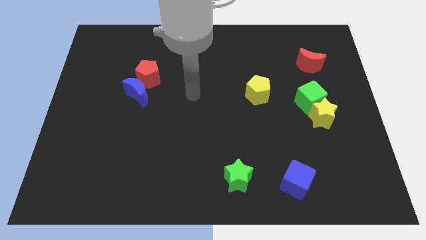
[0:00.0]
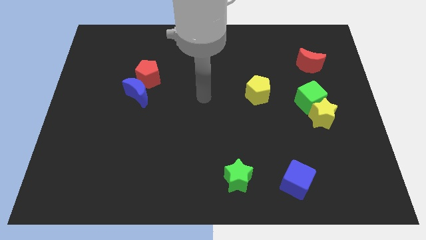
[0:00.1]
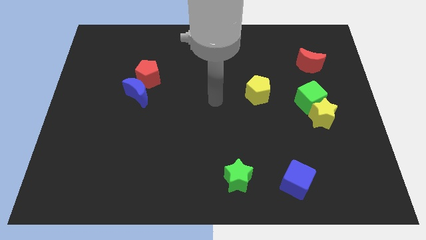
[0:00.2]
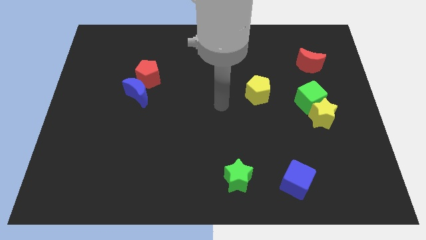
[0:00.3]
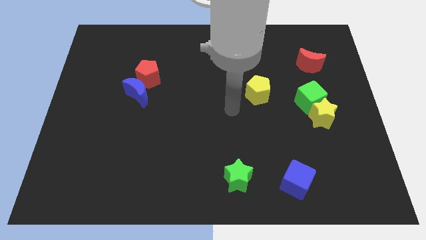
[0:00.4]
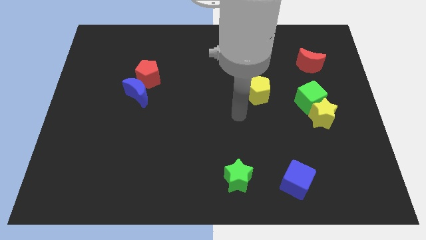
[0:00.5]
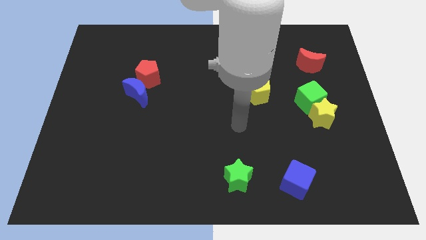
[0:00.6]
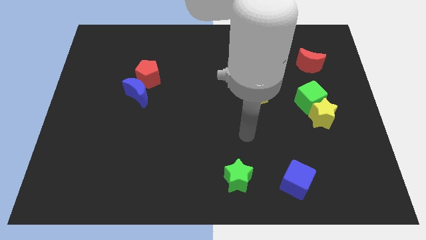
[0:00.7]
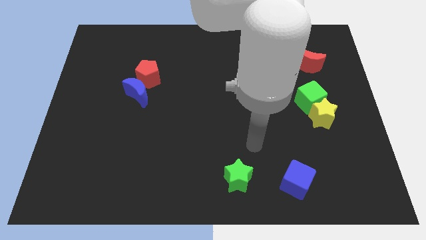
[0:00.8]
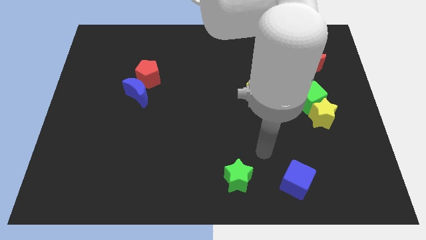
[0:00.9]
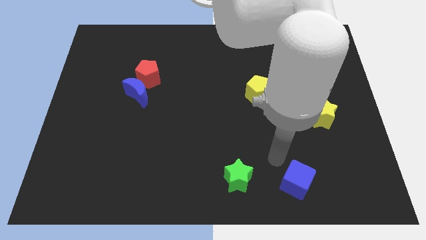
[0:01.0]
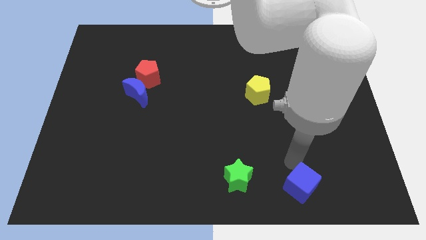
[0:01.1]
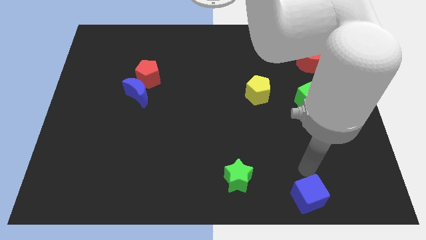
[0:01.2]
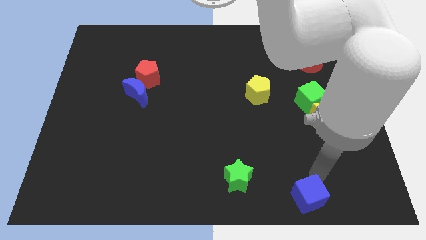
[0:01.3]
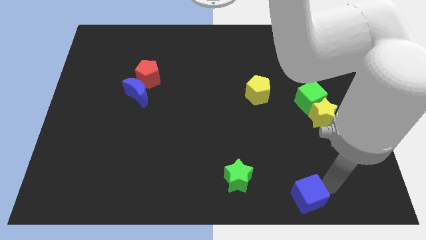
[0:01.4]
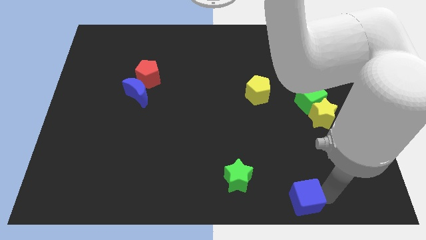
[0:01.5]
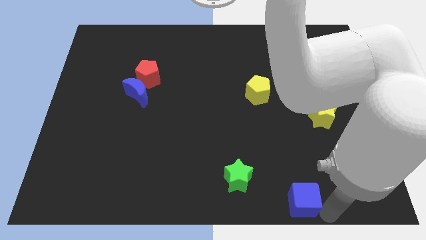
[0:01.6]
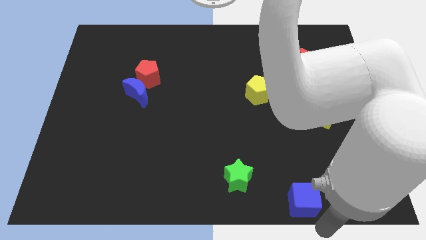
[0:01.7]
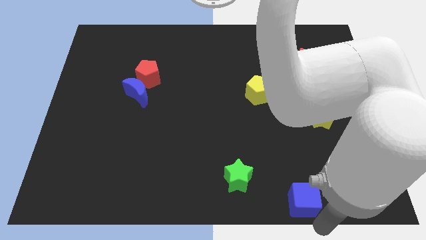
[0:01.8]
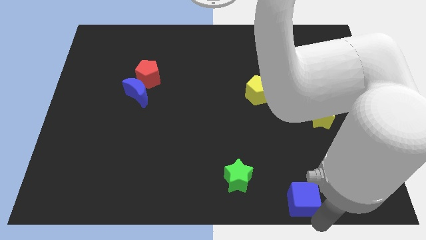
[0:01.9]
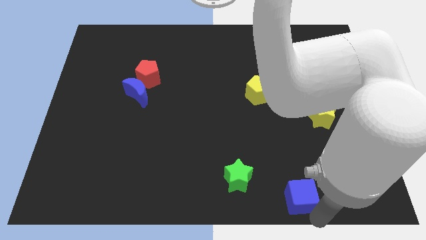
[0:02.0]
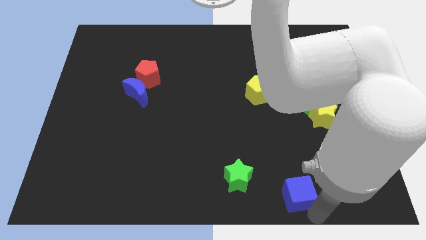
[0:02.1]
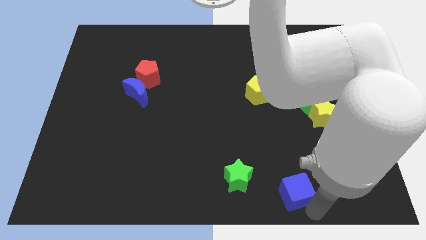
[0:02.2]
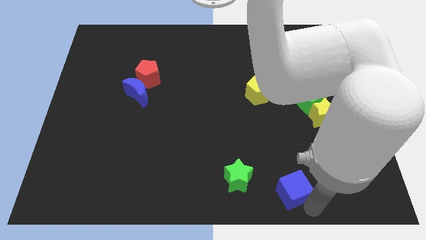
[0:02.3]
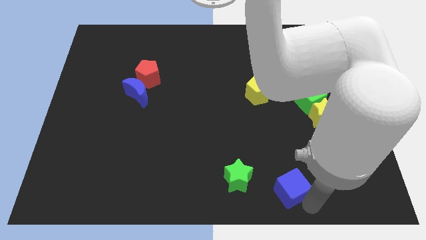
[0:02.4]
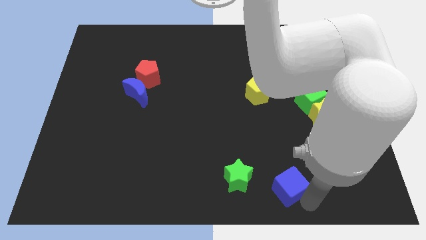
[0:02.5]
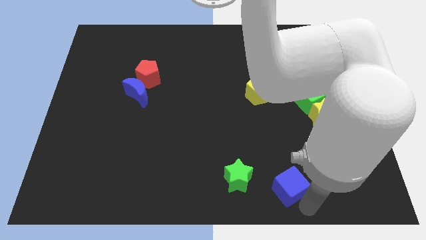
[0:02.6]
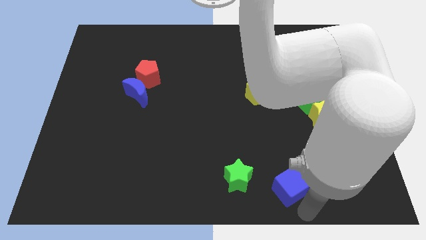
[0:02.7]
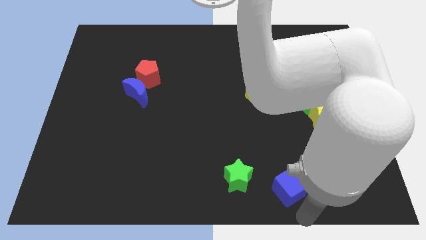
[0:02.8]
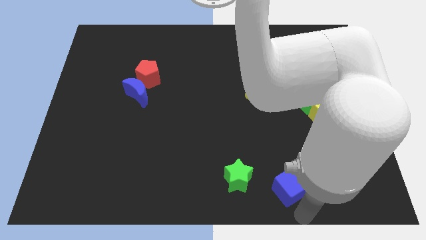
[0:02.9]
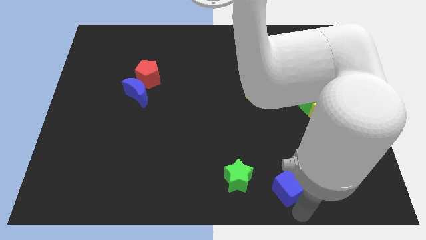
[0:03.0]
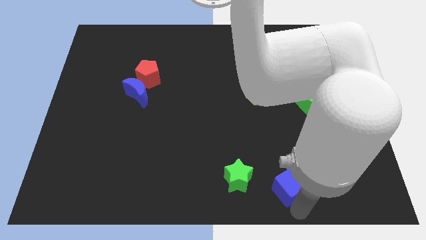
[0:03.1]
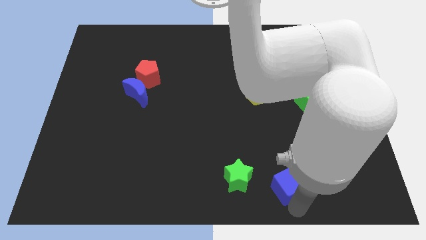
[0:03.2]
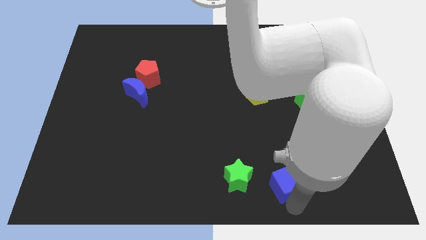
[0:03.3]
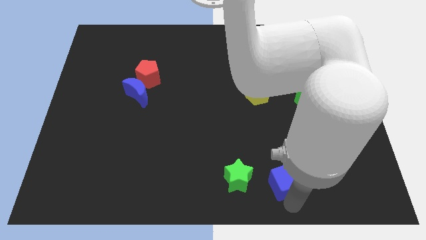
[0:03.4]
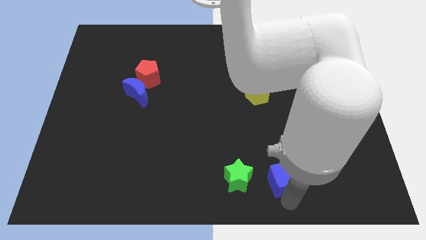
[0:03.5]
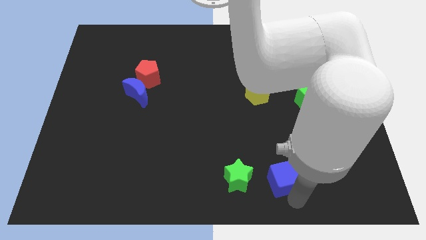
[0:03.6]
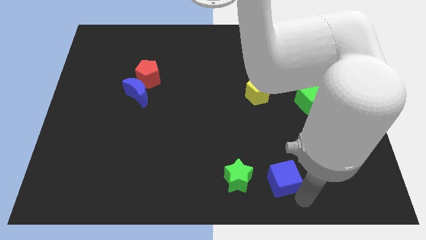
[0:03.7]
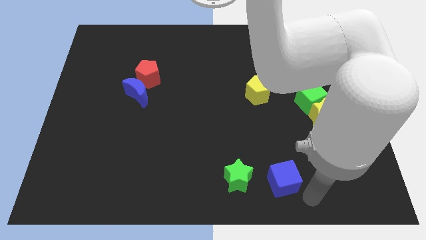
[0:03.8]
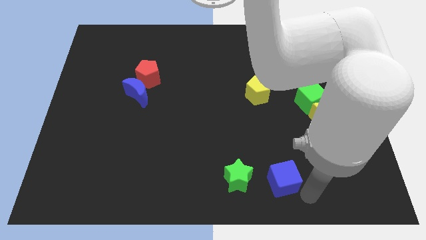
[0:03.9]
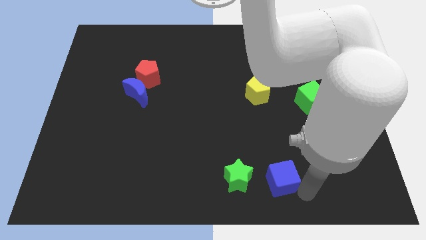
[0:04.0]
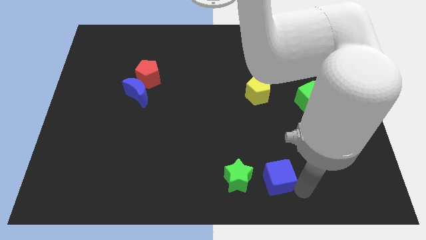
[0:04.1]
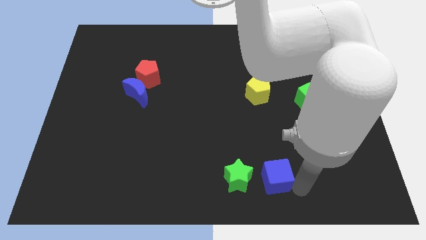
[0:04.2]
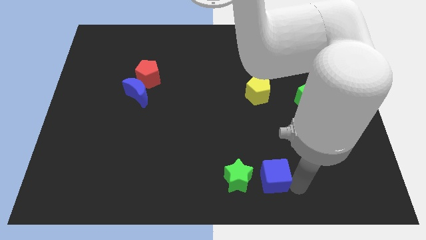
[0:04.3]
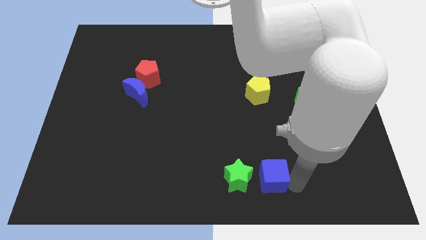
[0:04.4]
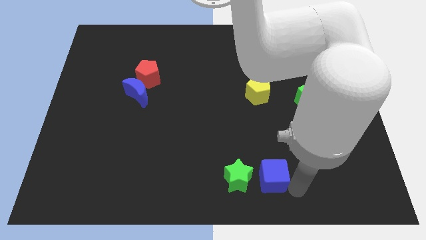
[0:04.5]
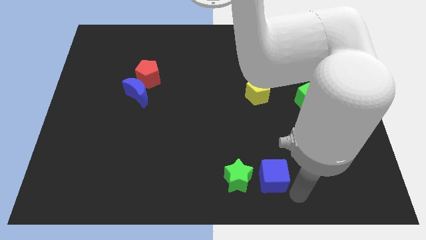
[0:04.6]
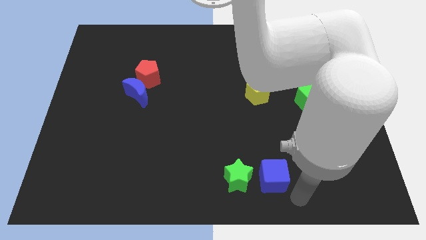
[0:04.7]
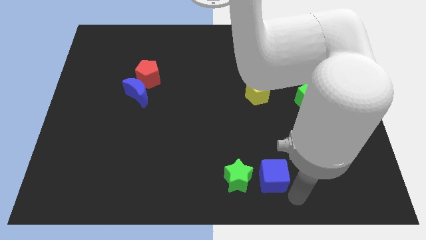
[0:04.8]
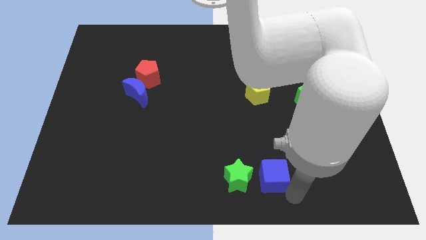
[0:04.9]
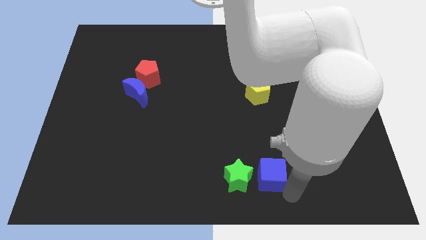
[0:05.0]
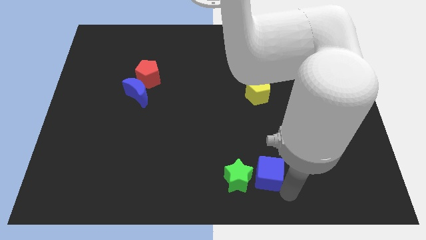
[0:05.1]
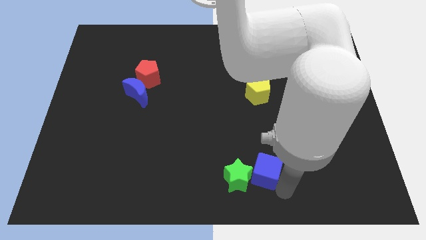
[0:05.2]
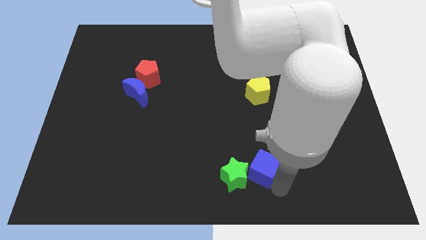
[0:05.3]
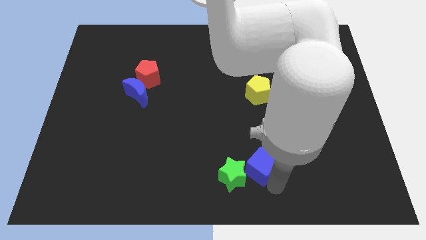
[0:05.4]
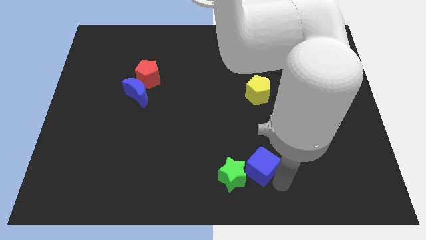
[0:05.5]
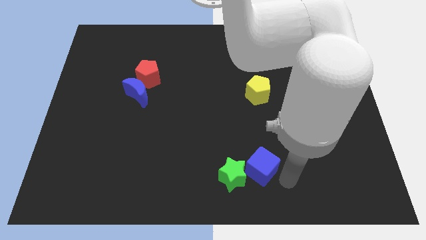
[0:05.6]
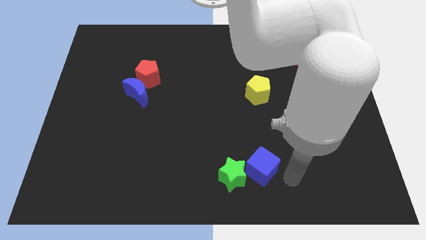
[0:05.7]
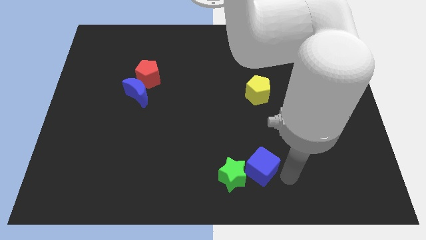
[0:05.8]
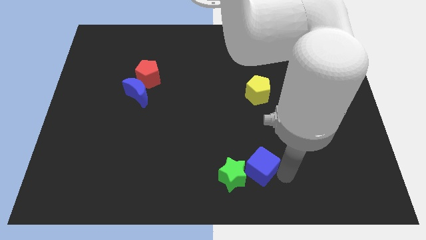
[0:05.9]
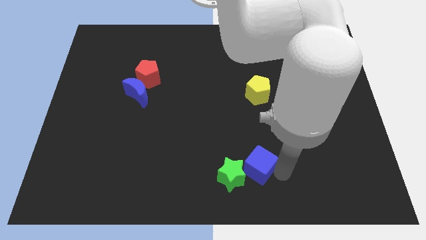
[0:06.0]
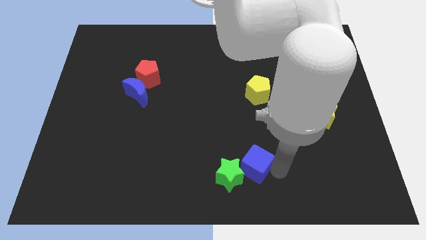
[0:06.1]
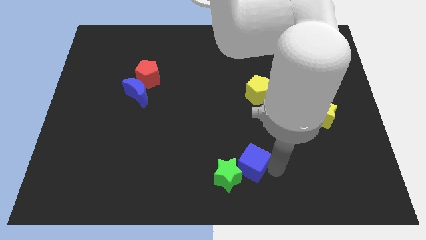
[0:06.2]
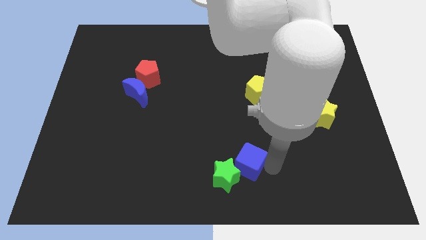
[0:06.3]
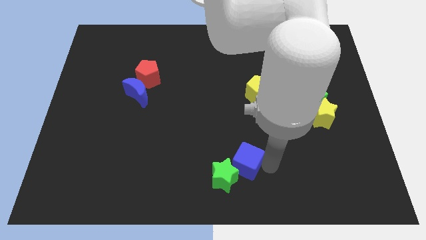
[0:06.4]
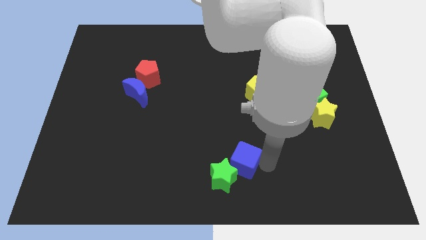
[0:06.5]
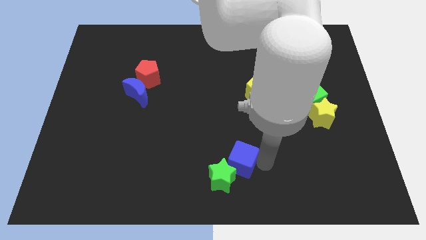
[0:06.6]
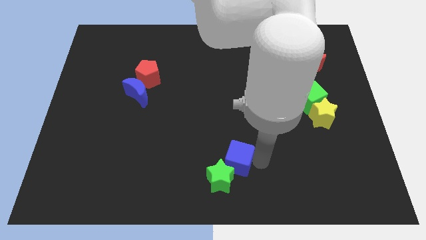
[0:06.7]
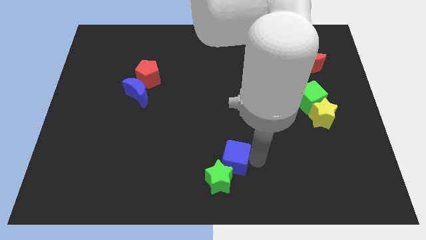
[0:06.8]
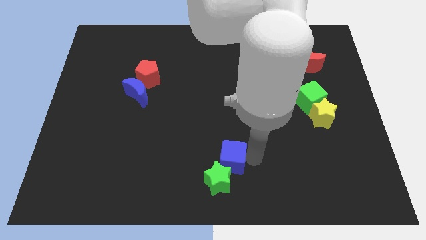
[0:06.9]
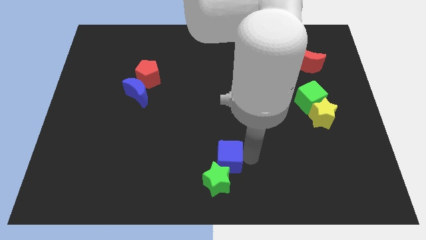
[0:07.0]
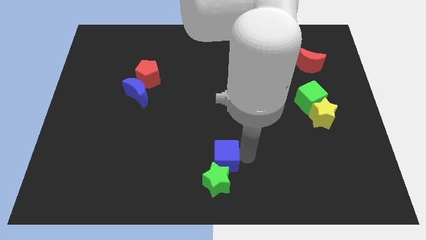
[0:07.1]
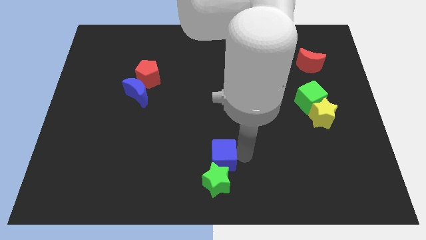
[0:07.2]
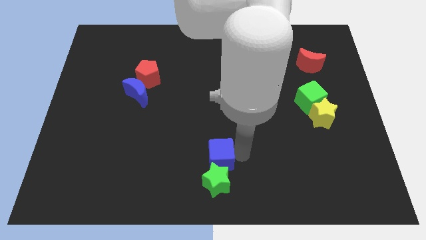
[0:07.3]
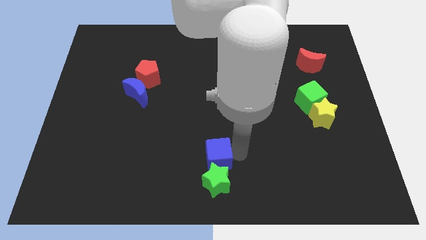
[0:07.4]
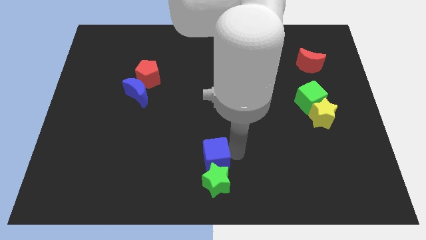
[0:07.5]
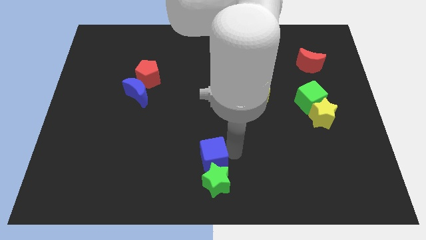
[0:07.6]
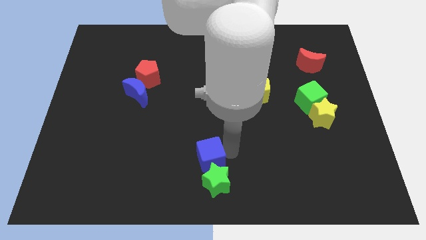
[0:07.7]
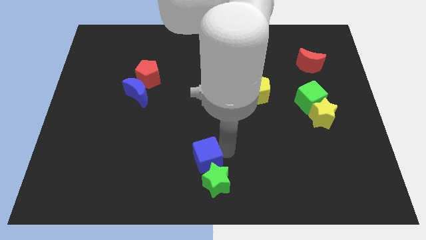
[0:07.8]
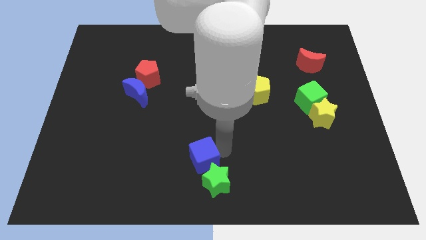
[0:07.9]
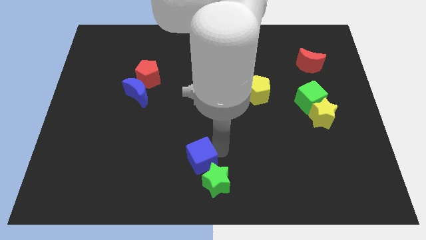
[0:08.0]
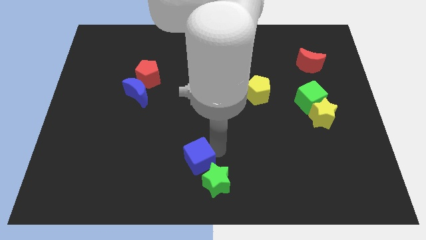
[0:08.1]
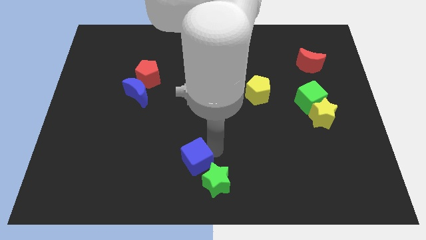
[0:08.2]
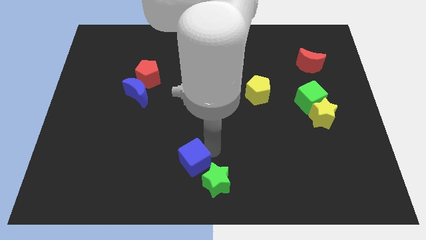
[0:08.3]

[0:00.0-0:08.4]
push the blue cube to the left

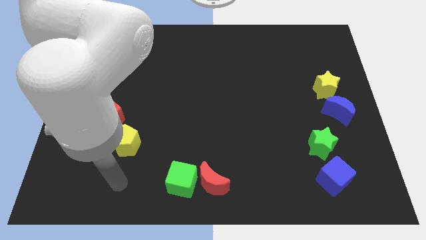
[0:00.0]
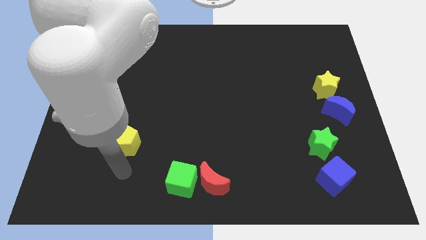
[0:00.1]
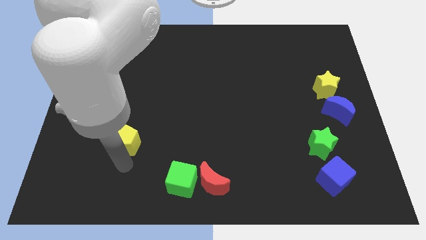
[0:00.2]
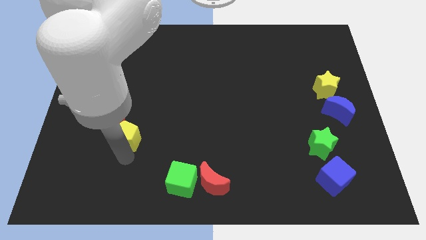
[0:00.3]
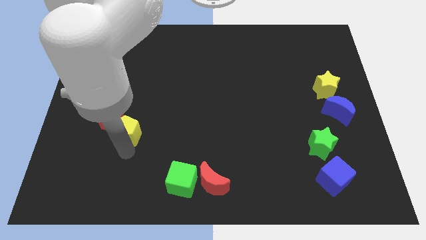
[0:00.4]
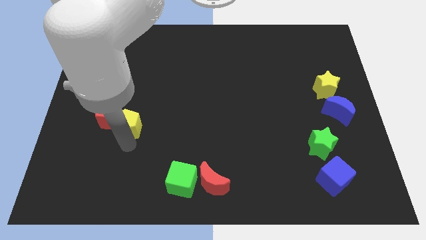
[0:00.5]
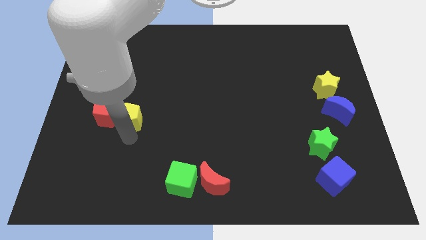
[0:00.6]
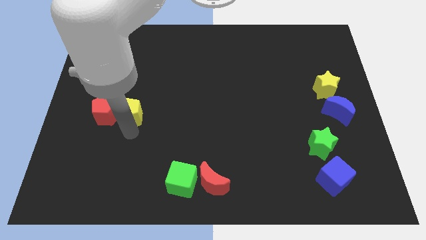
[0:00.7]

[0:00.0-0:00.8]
move the yellow pentagon a little bit up
